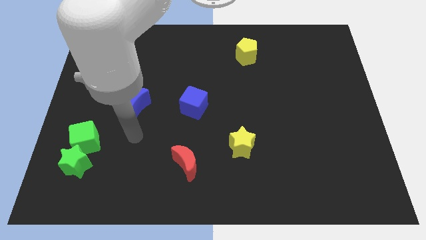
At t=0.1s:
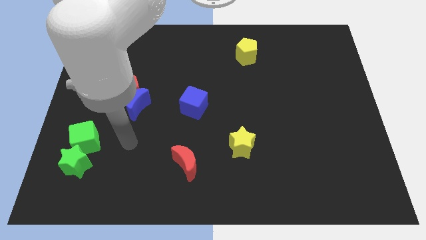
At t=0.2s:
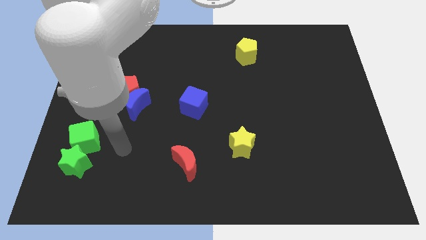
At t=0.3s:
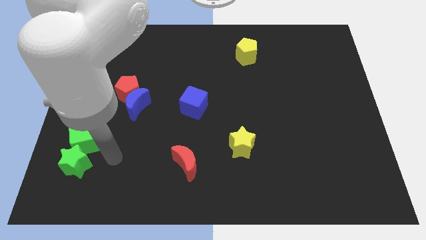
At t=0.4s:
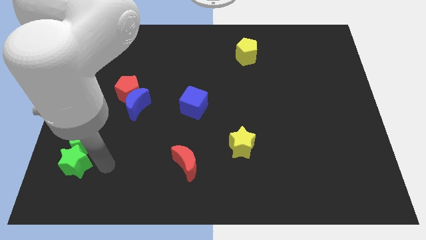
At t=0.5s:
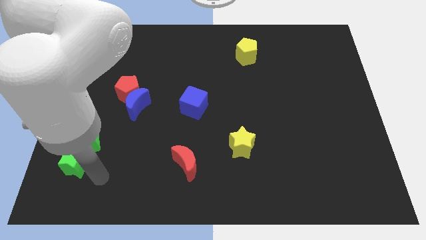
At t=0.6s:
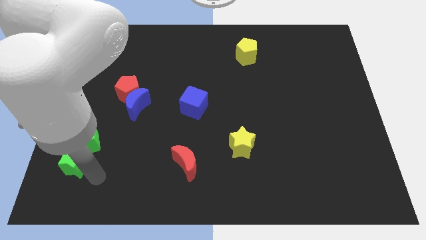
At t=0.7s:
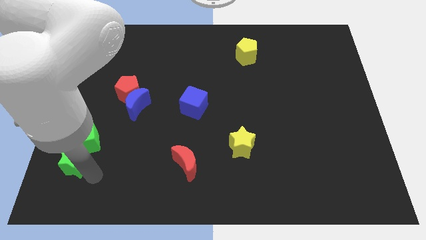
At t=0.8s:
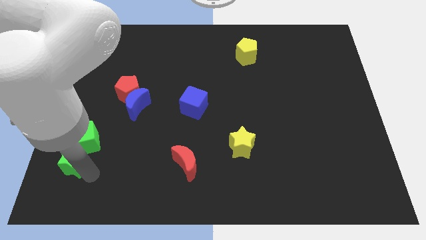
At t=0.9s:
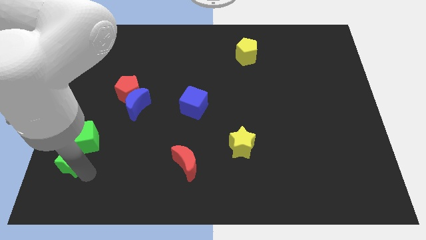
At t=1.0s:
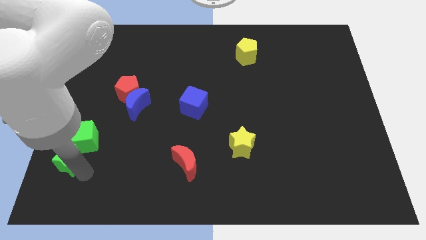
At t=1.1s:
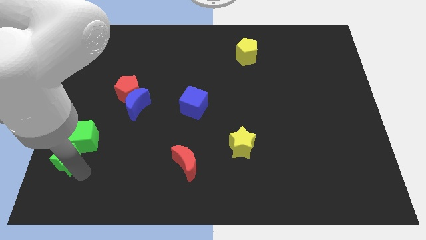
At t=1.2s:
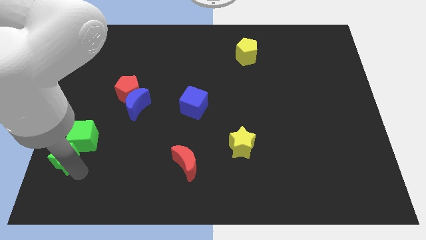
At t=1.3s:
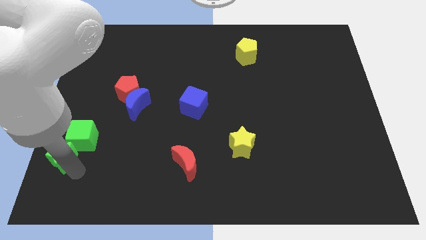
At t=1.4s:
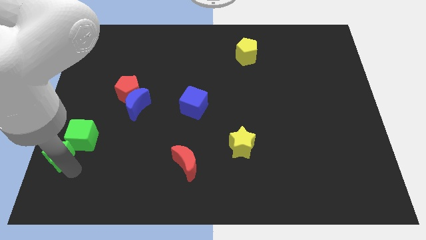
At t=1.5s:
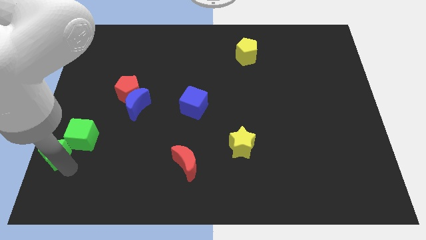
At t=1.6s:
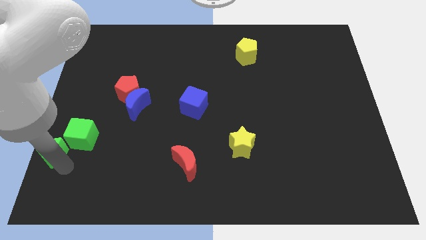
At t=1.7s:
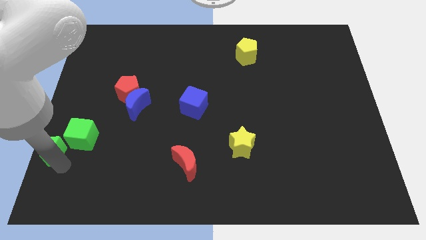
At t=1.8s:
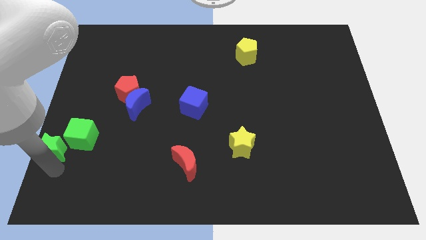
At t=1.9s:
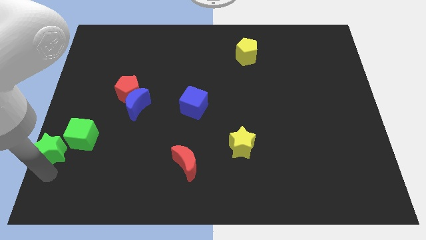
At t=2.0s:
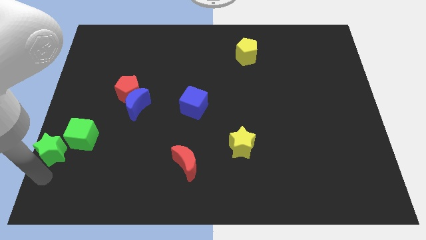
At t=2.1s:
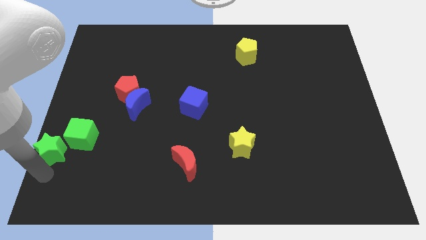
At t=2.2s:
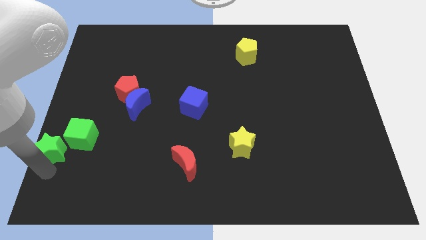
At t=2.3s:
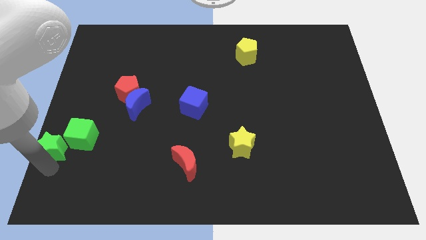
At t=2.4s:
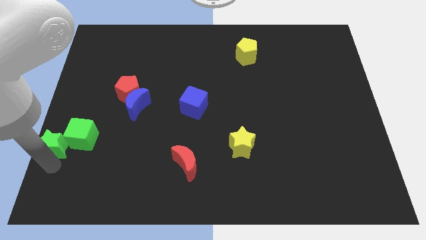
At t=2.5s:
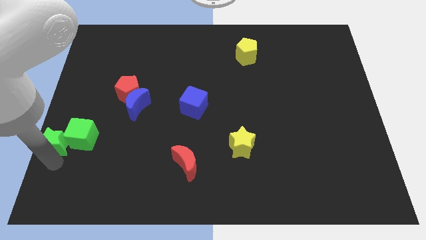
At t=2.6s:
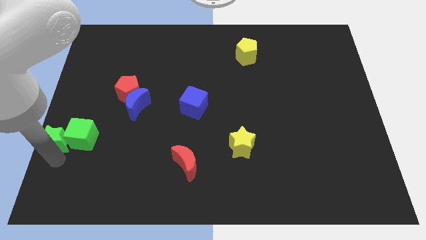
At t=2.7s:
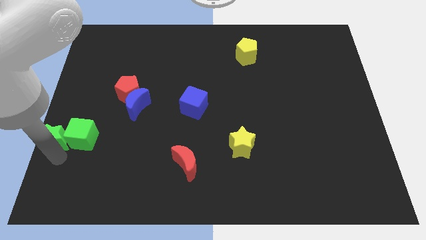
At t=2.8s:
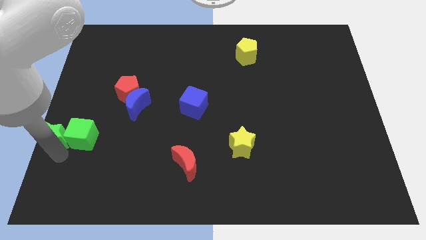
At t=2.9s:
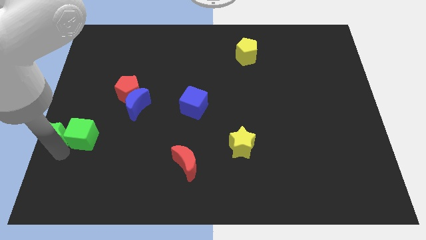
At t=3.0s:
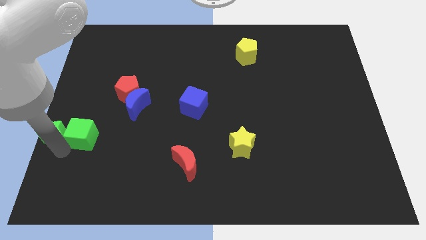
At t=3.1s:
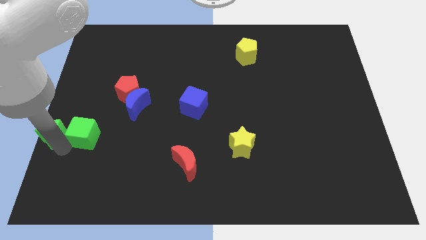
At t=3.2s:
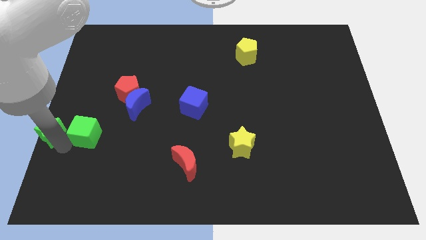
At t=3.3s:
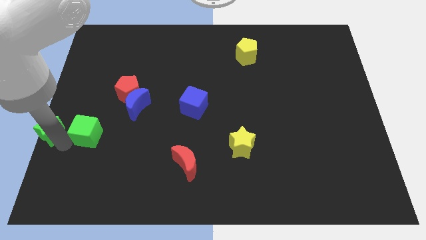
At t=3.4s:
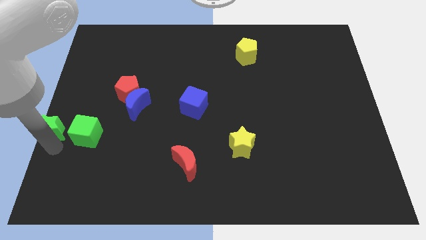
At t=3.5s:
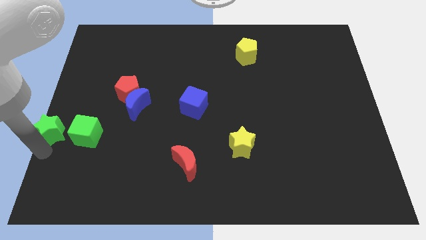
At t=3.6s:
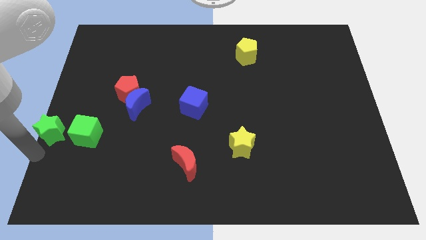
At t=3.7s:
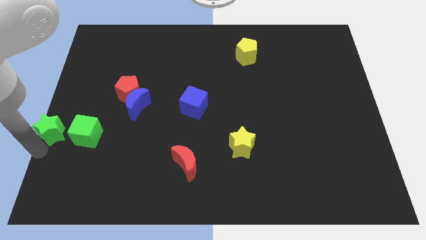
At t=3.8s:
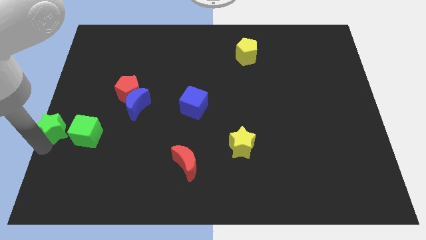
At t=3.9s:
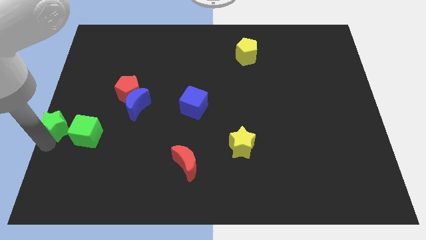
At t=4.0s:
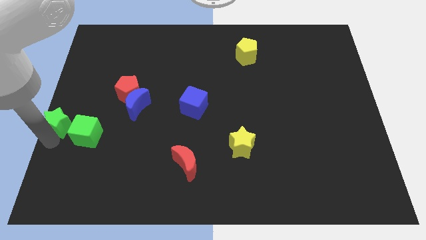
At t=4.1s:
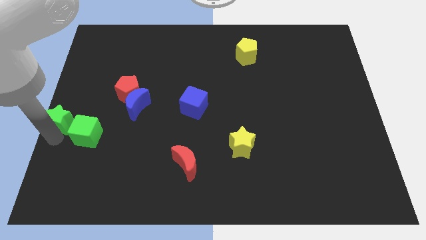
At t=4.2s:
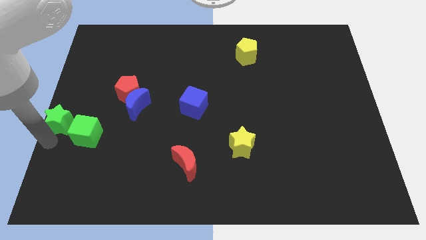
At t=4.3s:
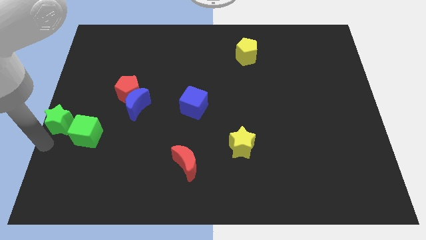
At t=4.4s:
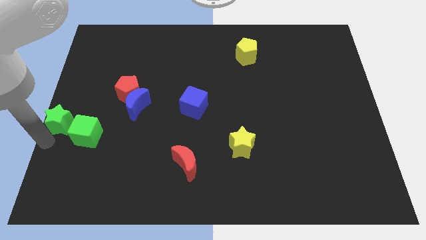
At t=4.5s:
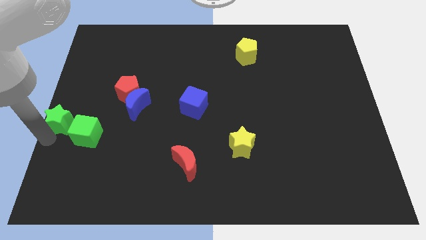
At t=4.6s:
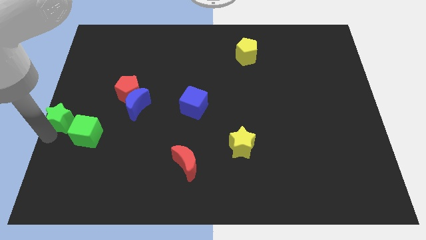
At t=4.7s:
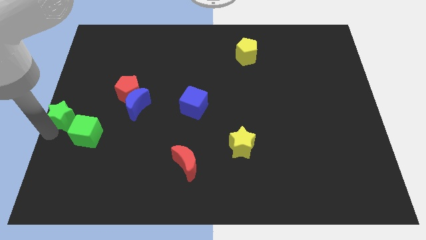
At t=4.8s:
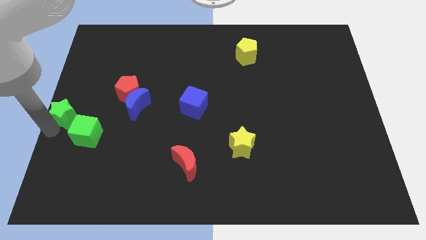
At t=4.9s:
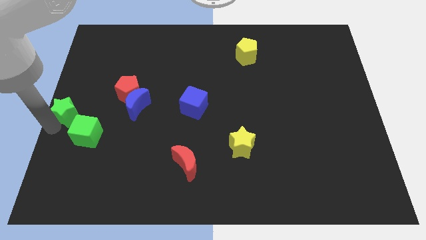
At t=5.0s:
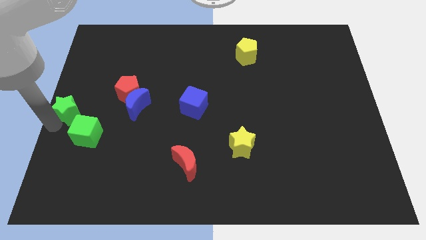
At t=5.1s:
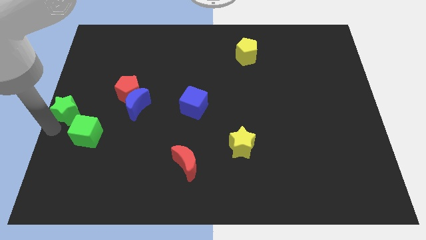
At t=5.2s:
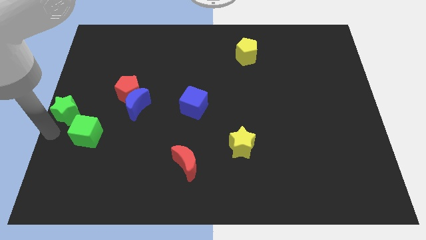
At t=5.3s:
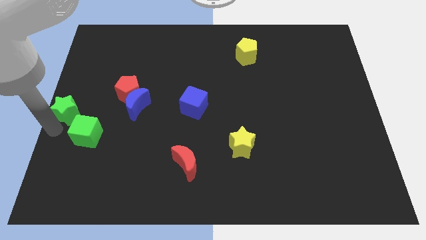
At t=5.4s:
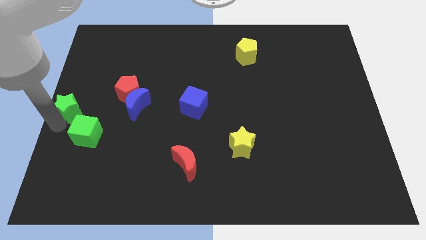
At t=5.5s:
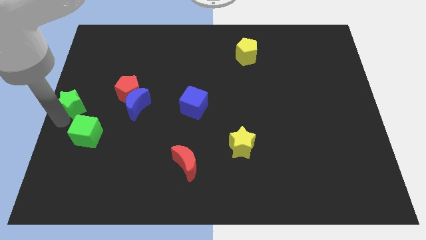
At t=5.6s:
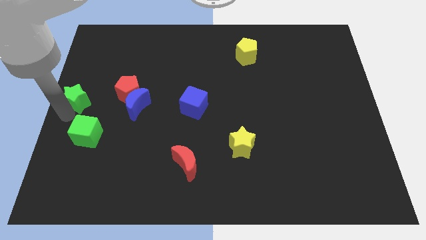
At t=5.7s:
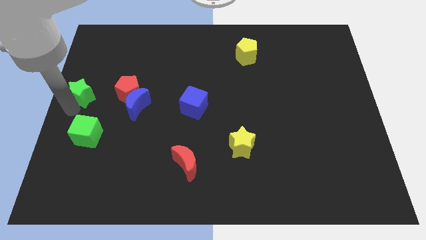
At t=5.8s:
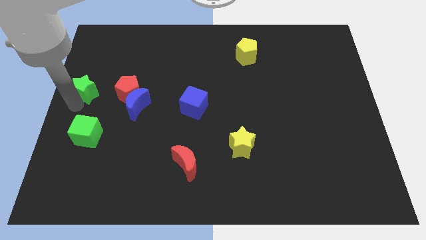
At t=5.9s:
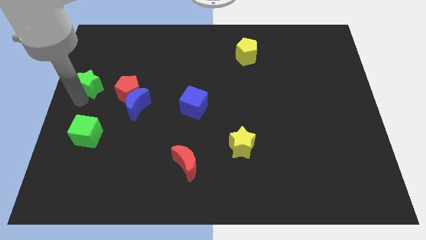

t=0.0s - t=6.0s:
slide the green star up

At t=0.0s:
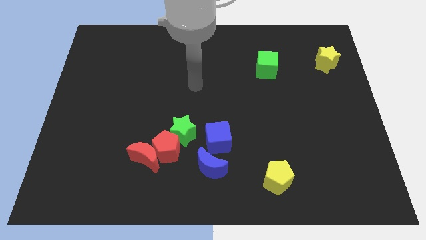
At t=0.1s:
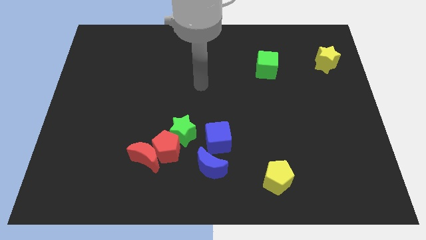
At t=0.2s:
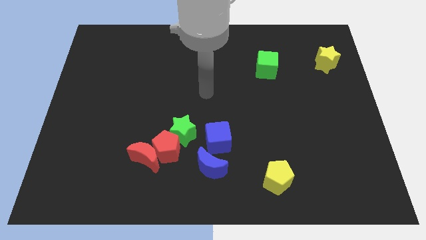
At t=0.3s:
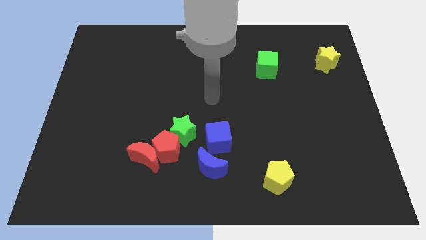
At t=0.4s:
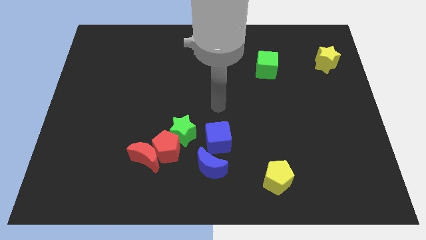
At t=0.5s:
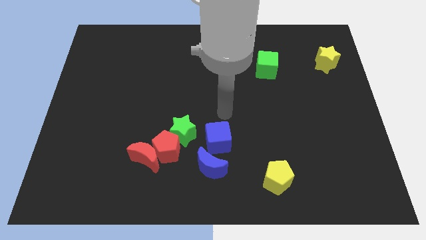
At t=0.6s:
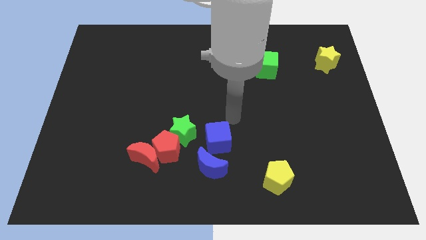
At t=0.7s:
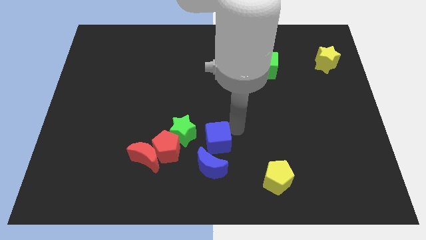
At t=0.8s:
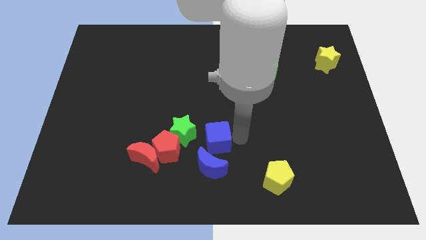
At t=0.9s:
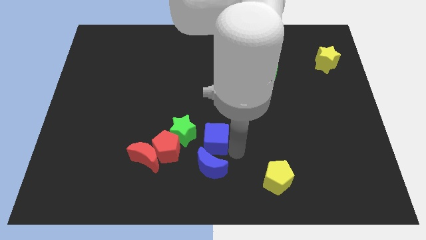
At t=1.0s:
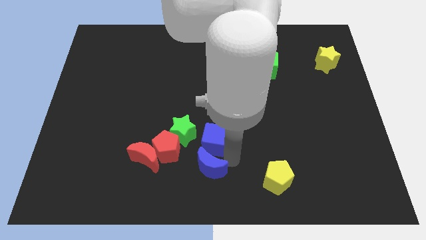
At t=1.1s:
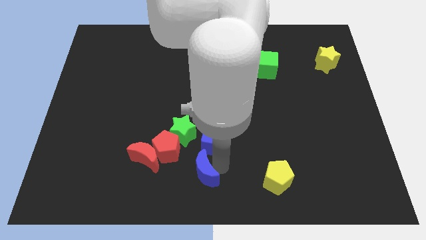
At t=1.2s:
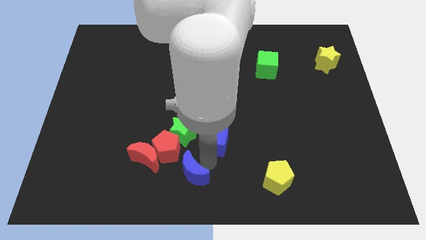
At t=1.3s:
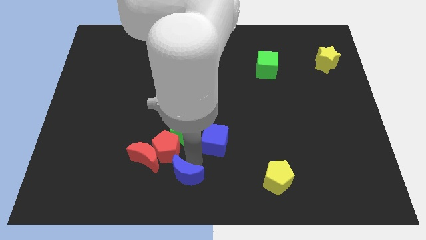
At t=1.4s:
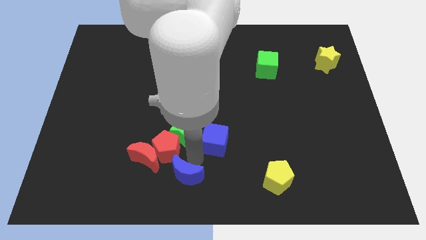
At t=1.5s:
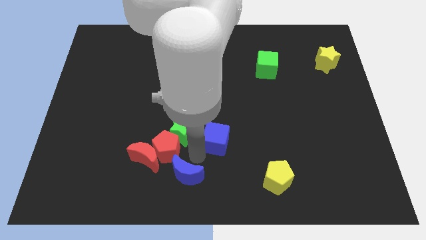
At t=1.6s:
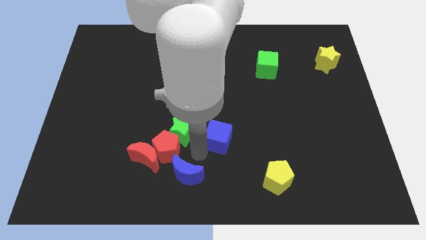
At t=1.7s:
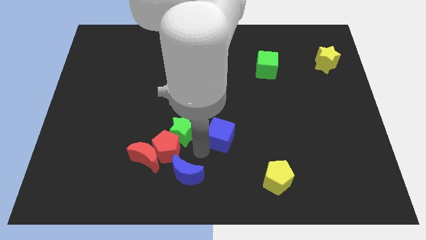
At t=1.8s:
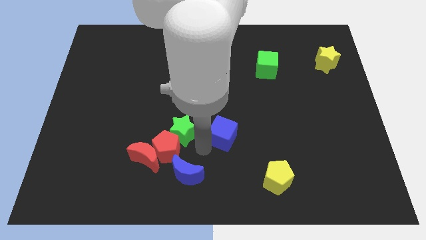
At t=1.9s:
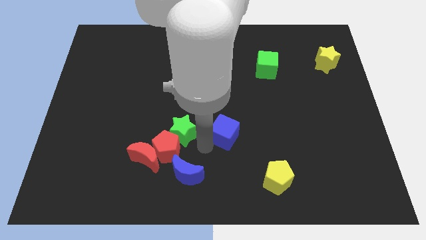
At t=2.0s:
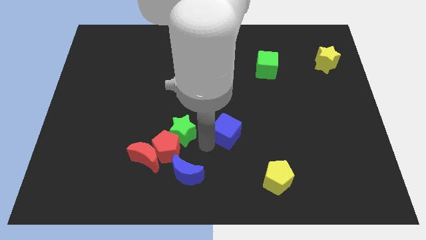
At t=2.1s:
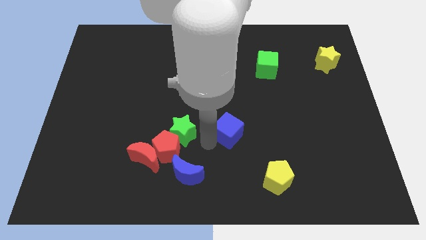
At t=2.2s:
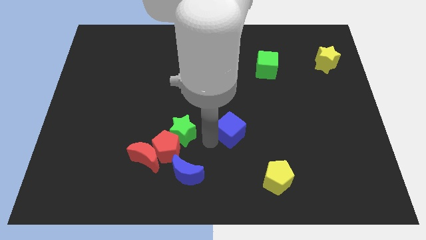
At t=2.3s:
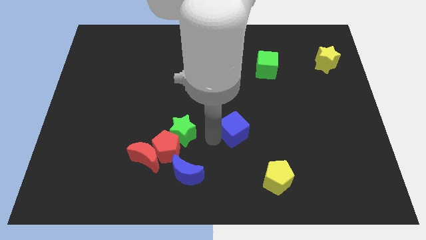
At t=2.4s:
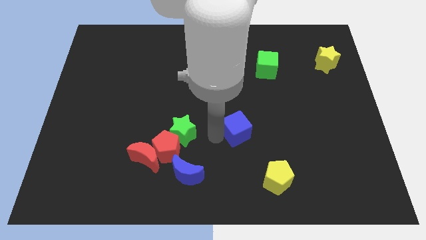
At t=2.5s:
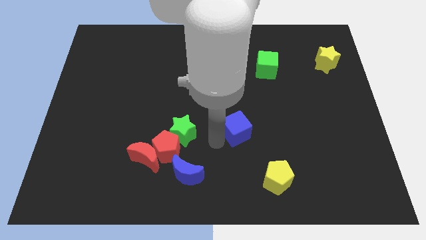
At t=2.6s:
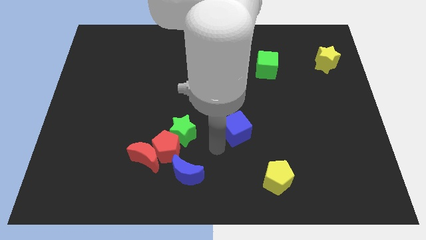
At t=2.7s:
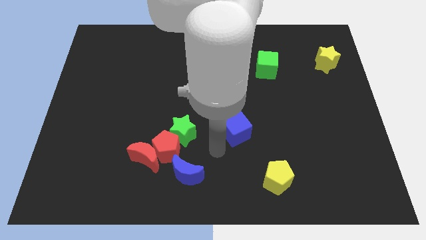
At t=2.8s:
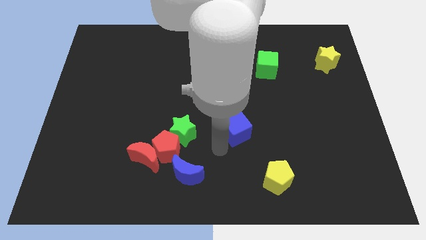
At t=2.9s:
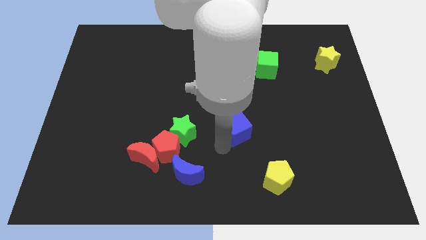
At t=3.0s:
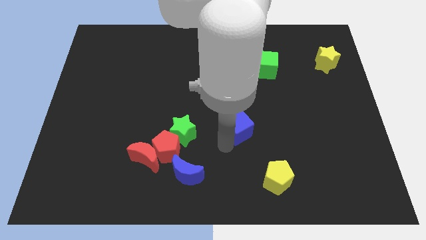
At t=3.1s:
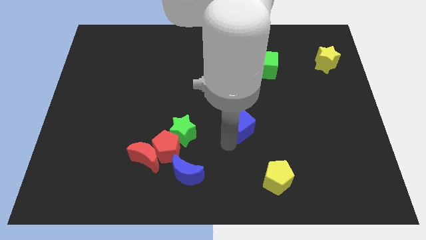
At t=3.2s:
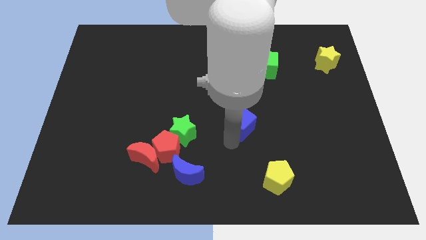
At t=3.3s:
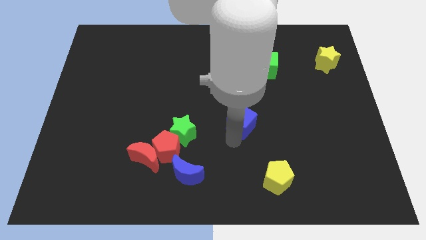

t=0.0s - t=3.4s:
slightly move the blue cube diagonally upwards and right
